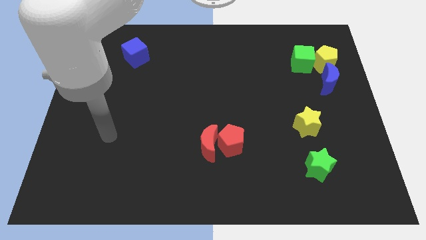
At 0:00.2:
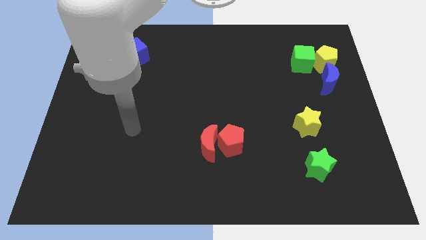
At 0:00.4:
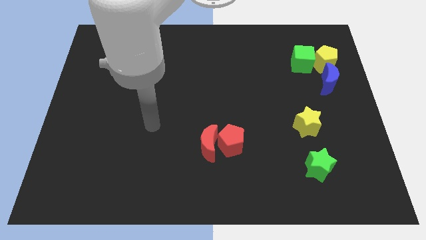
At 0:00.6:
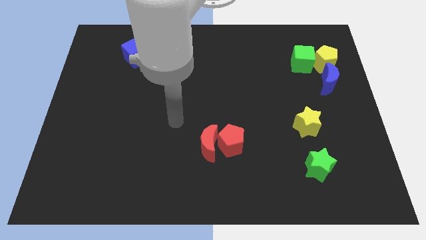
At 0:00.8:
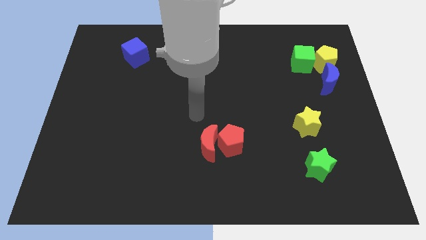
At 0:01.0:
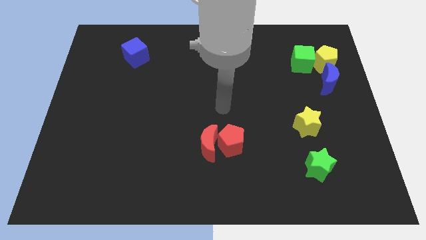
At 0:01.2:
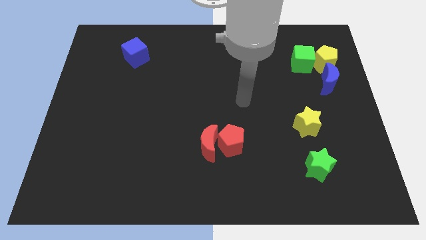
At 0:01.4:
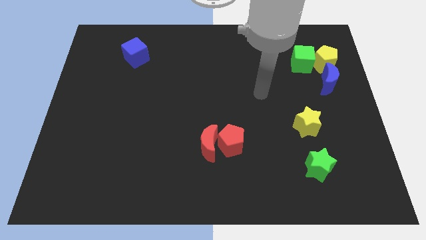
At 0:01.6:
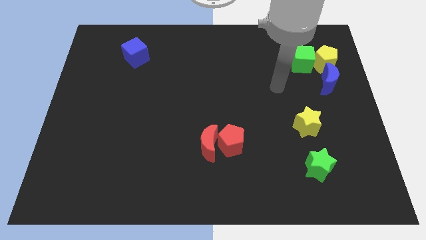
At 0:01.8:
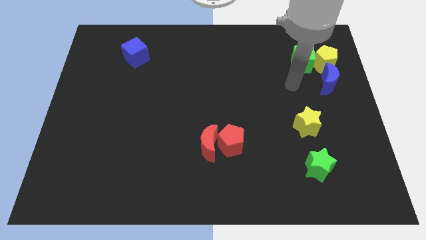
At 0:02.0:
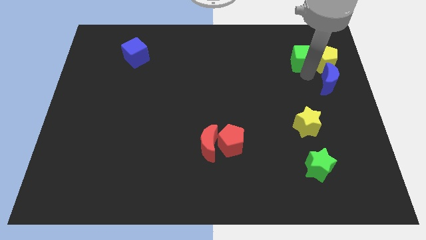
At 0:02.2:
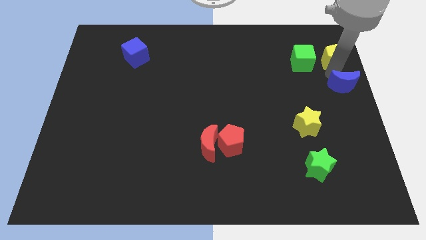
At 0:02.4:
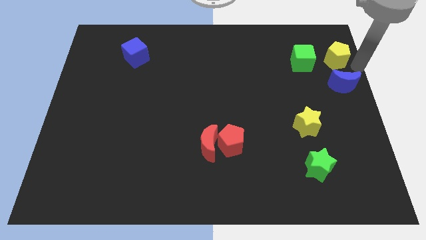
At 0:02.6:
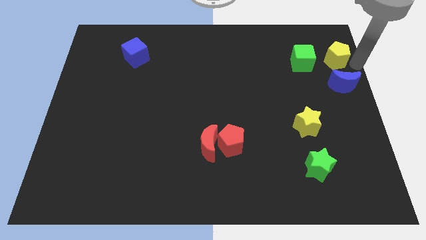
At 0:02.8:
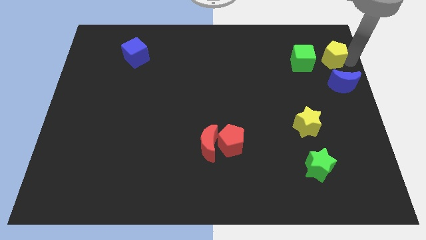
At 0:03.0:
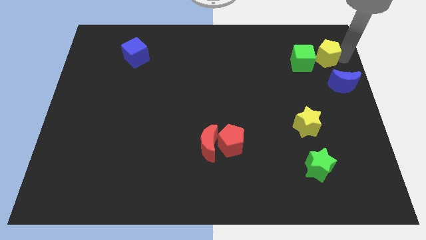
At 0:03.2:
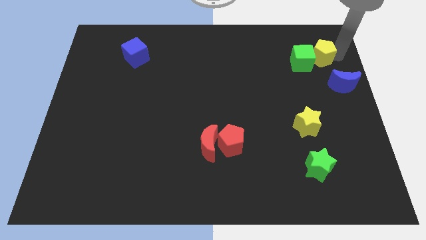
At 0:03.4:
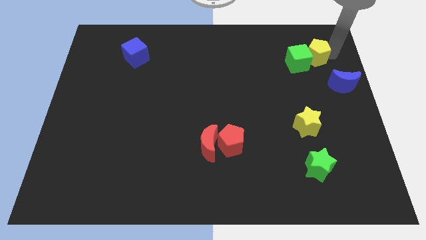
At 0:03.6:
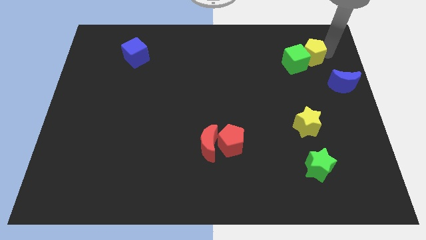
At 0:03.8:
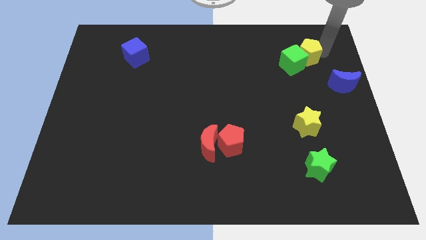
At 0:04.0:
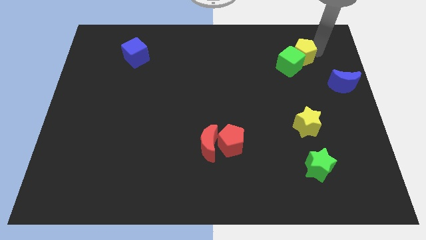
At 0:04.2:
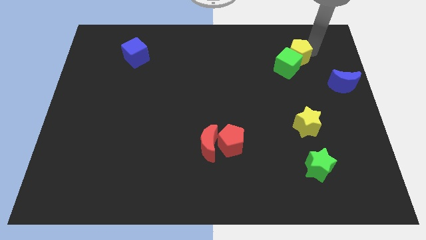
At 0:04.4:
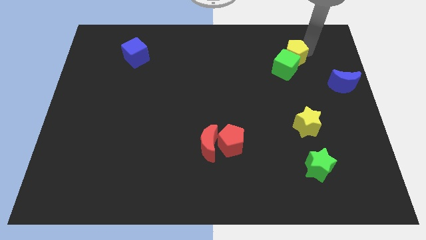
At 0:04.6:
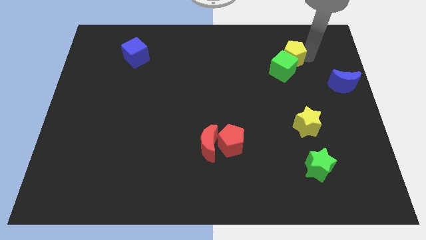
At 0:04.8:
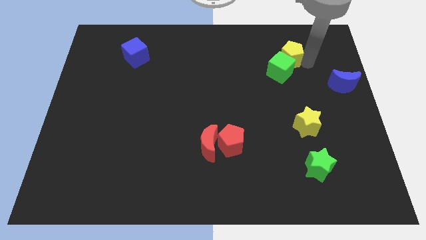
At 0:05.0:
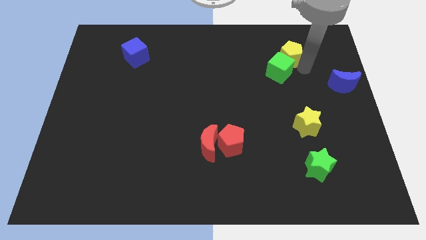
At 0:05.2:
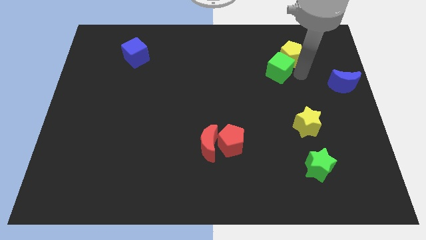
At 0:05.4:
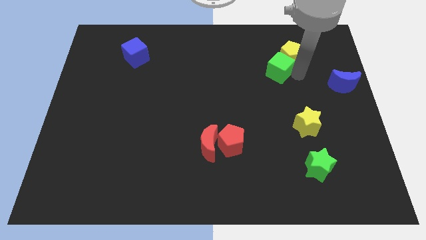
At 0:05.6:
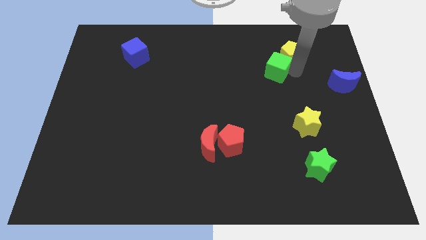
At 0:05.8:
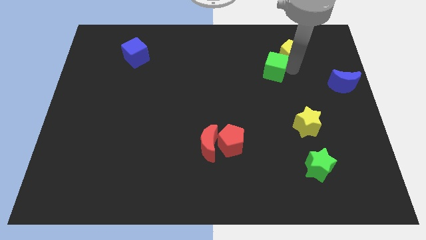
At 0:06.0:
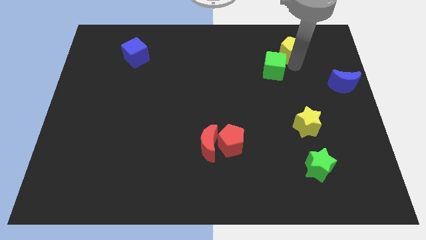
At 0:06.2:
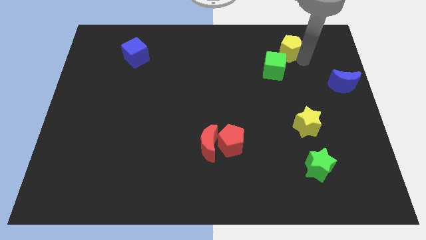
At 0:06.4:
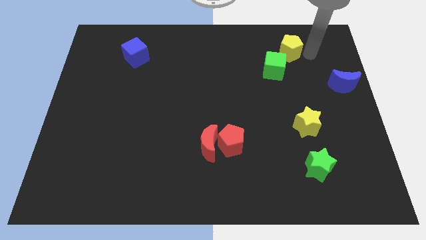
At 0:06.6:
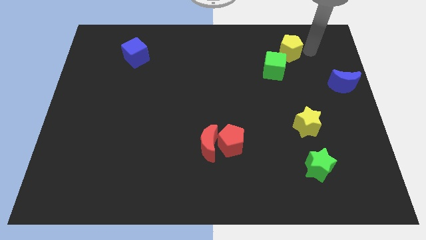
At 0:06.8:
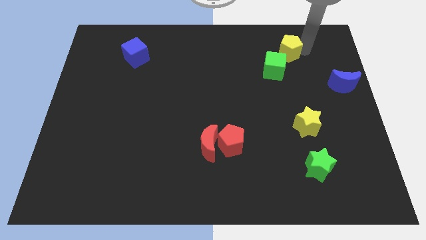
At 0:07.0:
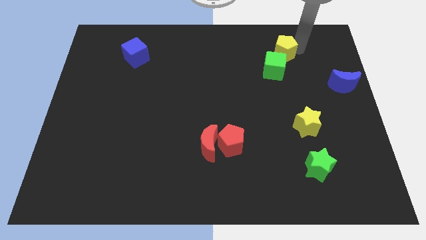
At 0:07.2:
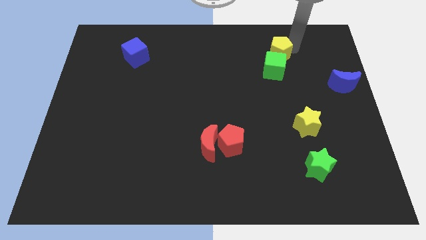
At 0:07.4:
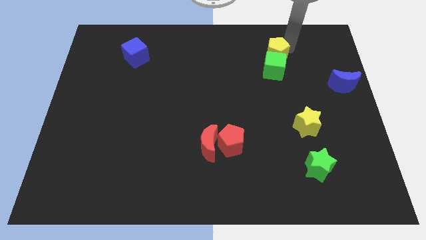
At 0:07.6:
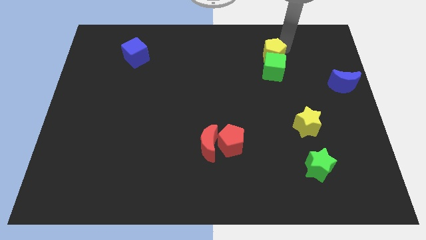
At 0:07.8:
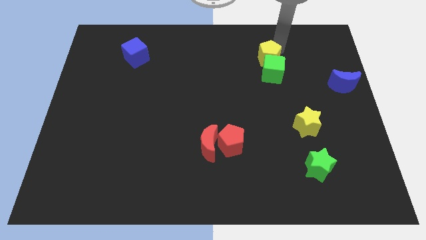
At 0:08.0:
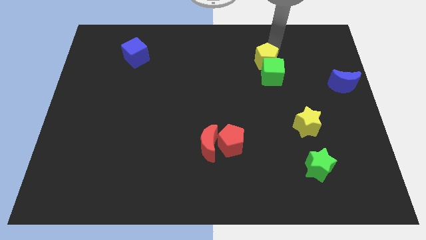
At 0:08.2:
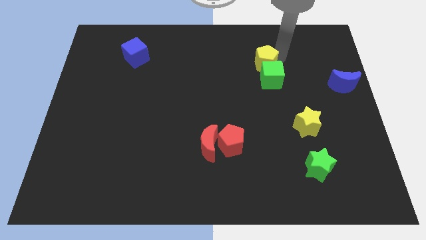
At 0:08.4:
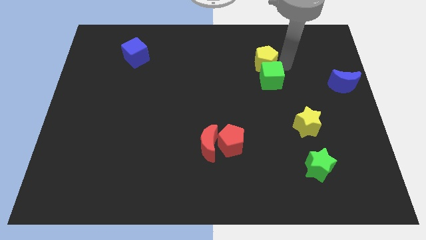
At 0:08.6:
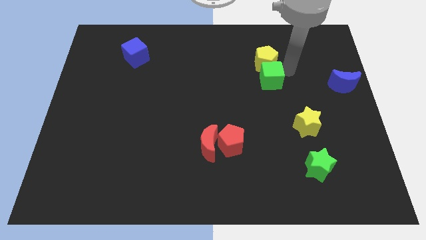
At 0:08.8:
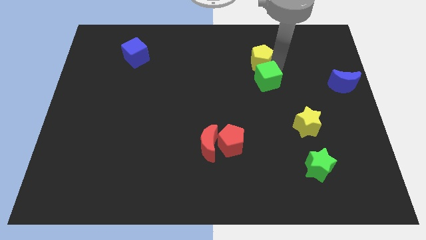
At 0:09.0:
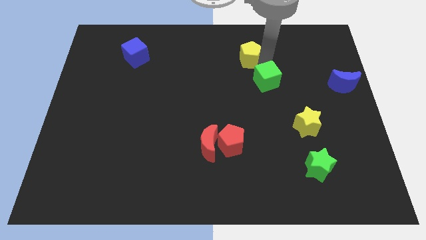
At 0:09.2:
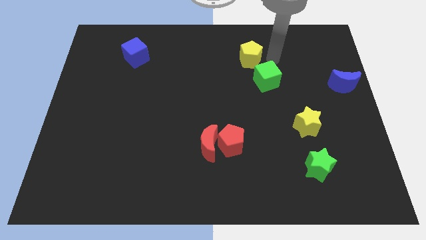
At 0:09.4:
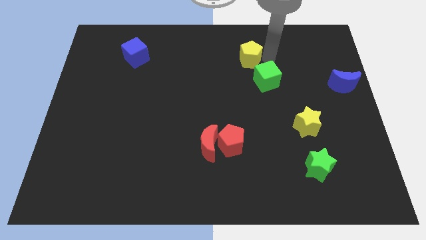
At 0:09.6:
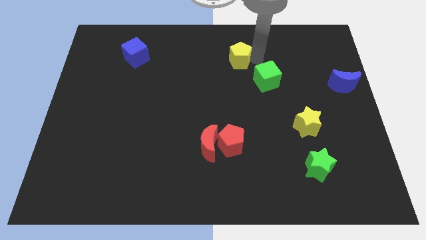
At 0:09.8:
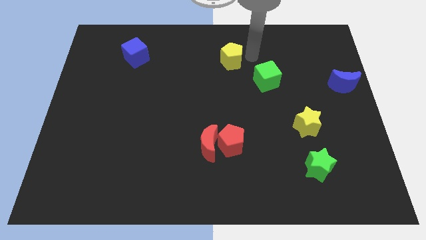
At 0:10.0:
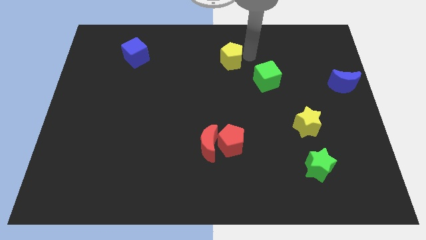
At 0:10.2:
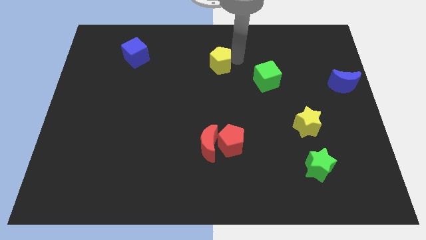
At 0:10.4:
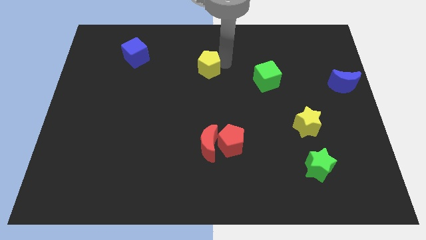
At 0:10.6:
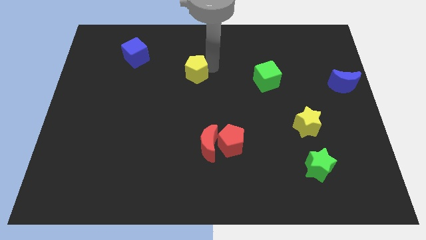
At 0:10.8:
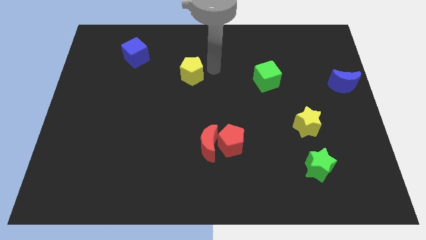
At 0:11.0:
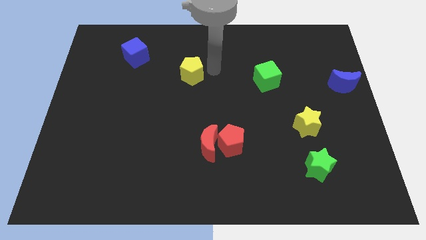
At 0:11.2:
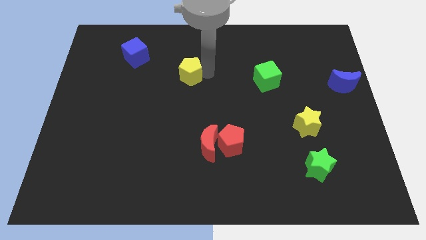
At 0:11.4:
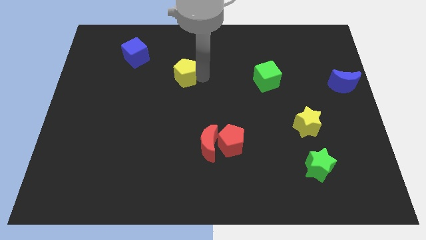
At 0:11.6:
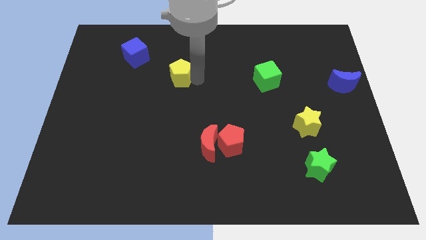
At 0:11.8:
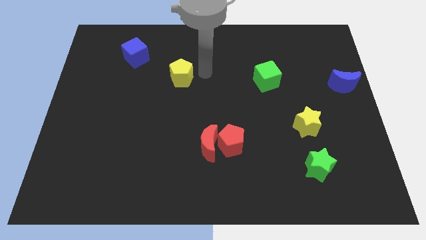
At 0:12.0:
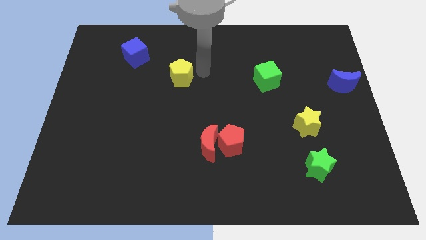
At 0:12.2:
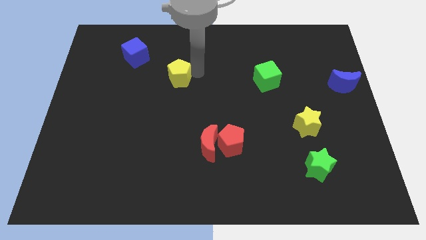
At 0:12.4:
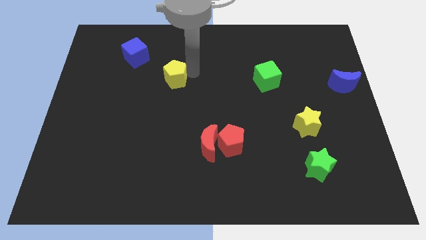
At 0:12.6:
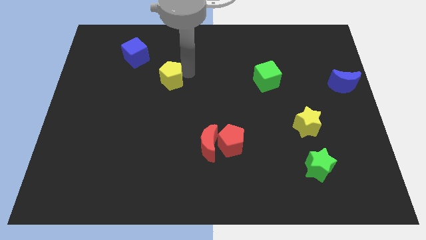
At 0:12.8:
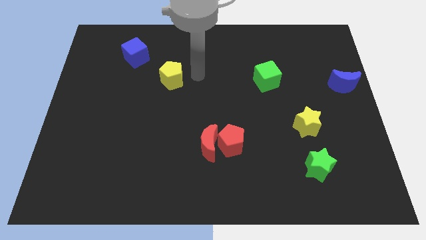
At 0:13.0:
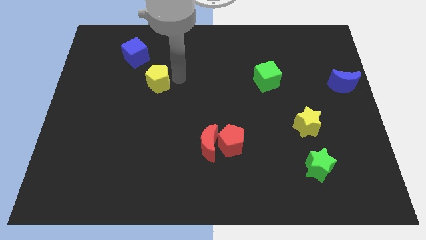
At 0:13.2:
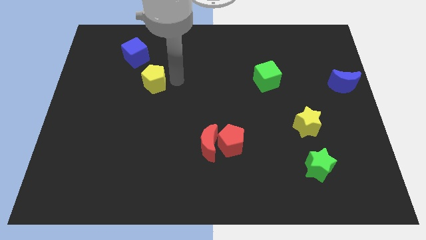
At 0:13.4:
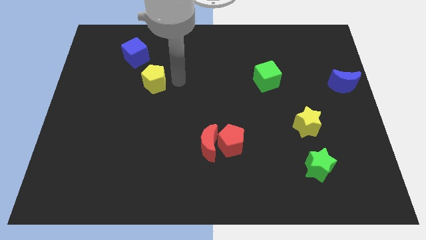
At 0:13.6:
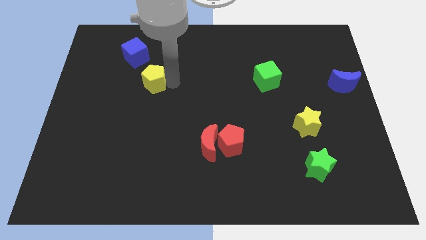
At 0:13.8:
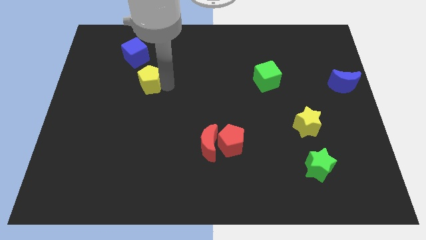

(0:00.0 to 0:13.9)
put the yellow pentagon below the blue cube
